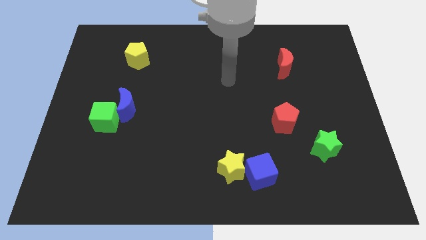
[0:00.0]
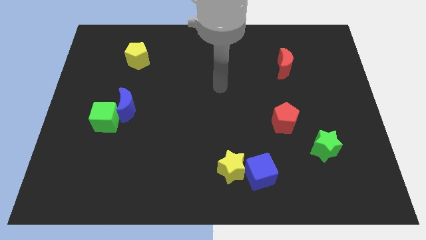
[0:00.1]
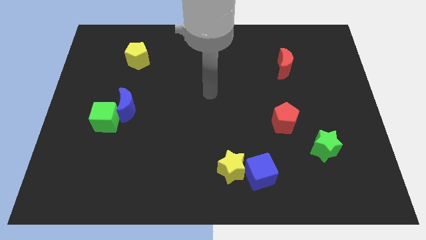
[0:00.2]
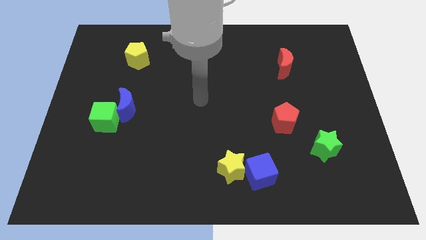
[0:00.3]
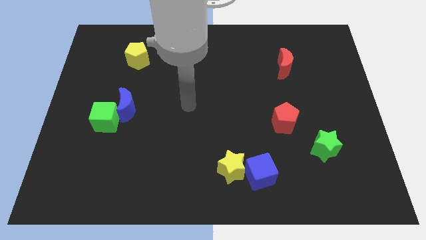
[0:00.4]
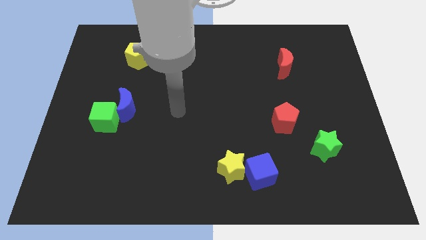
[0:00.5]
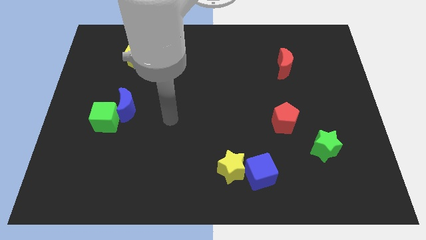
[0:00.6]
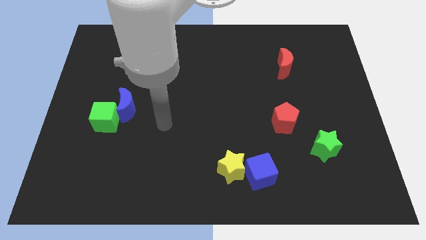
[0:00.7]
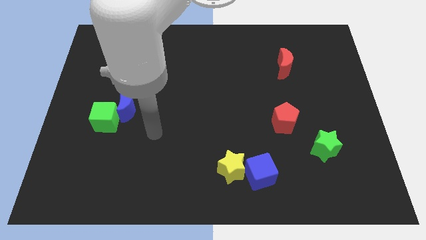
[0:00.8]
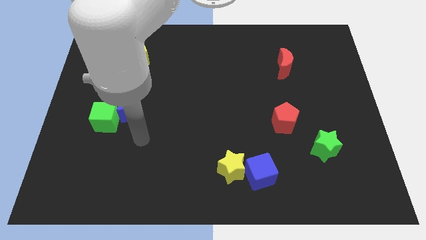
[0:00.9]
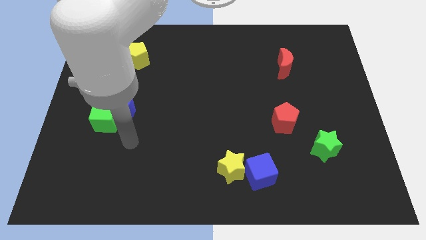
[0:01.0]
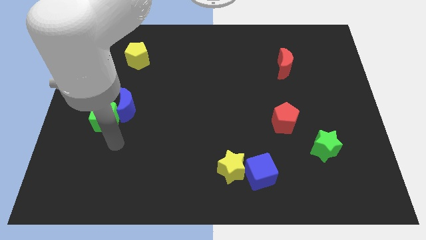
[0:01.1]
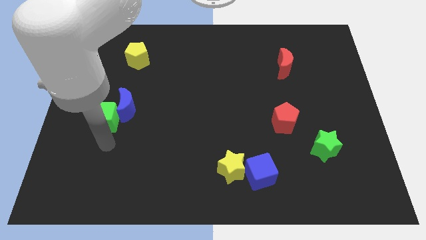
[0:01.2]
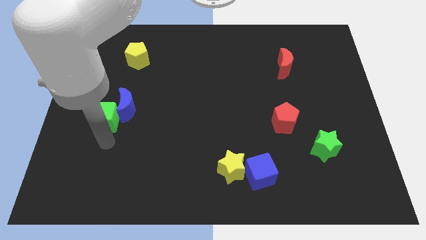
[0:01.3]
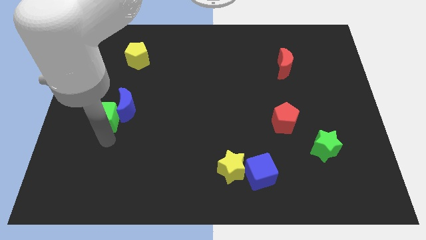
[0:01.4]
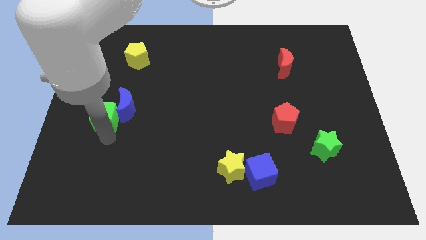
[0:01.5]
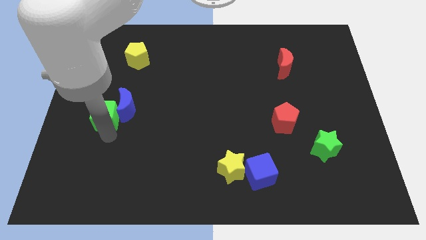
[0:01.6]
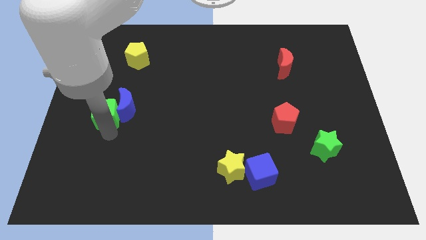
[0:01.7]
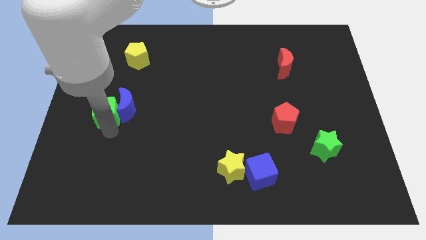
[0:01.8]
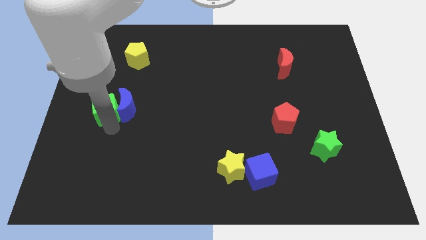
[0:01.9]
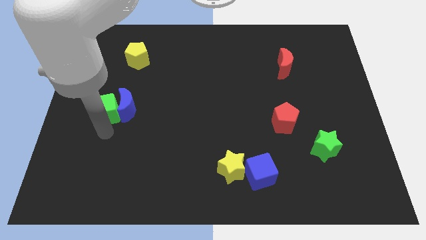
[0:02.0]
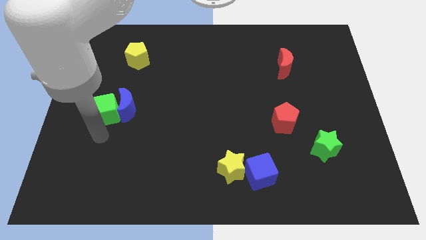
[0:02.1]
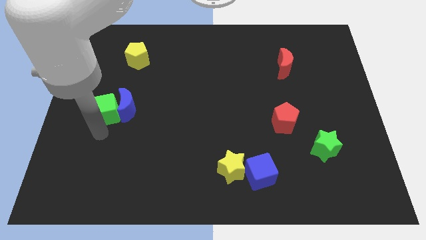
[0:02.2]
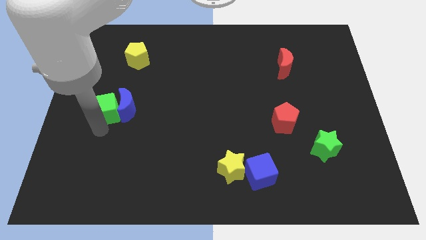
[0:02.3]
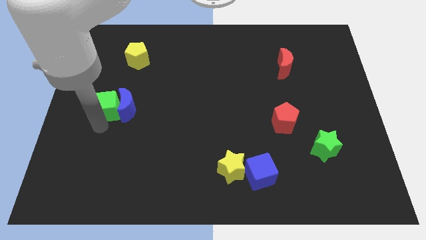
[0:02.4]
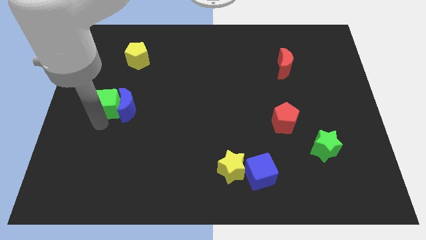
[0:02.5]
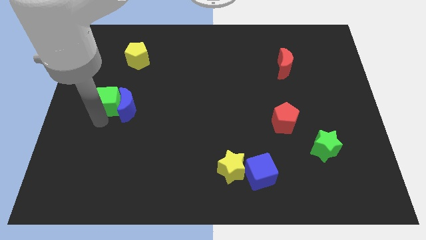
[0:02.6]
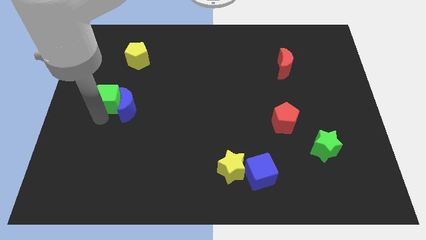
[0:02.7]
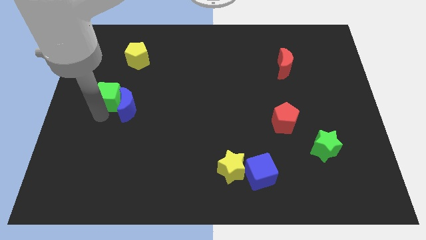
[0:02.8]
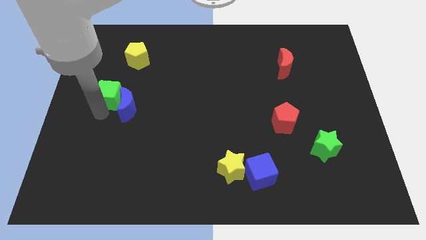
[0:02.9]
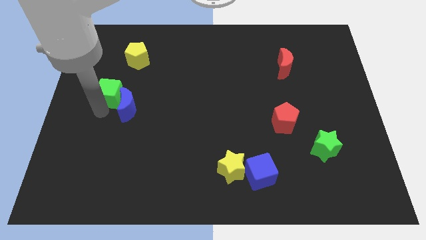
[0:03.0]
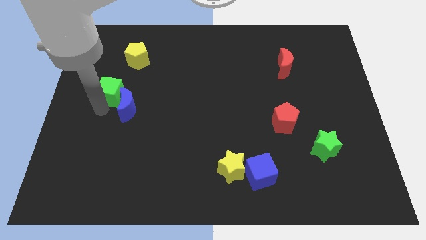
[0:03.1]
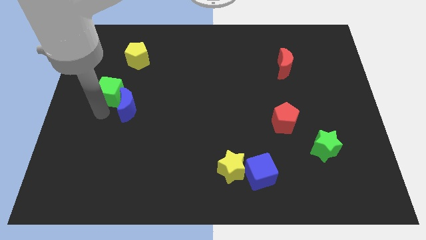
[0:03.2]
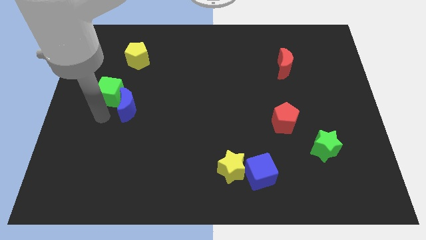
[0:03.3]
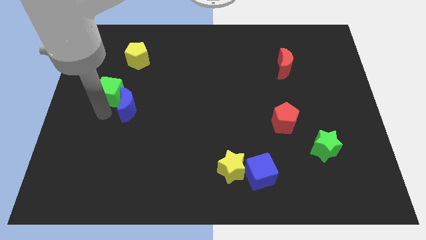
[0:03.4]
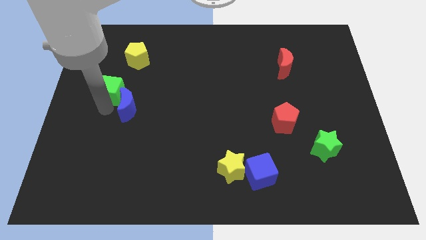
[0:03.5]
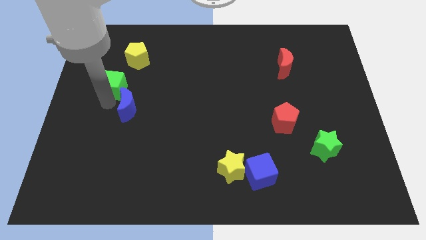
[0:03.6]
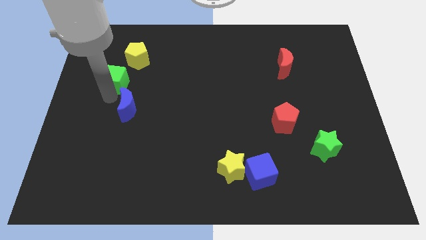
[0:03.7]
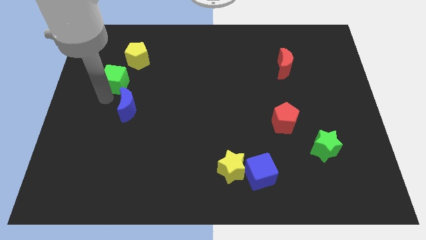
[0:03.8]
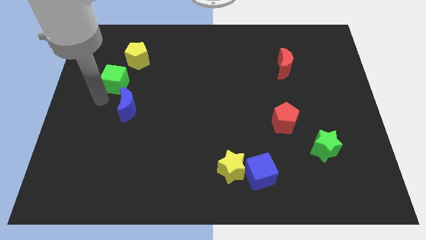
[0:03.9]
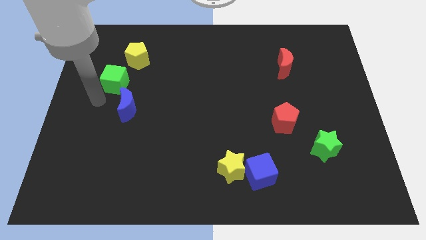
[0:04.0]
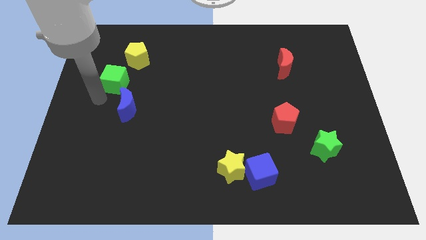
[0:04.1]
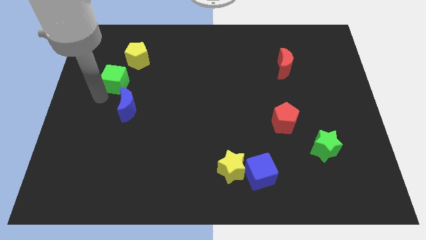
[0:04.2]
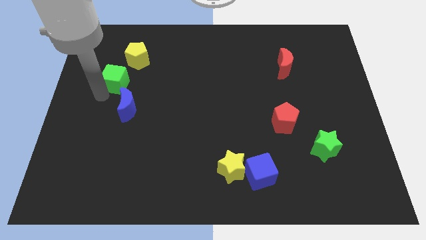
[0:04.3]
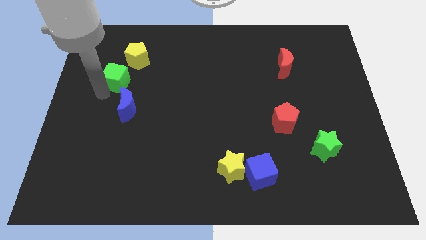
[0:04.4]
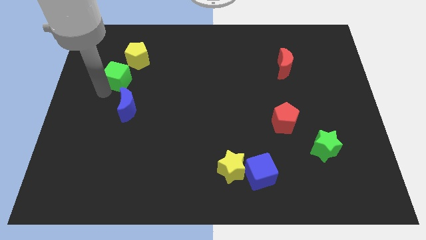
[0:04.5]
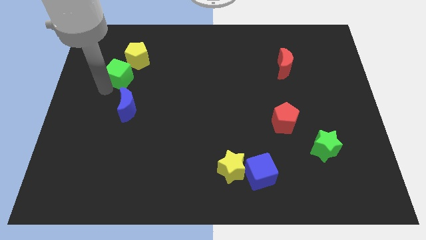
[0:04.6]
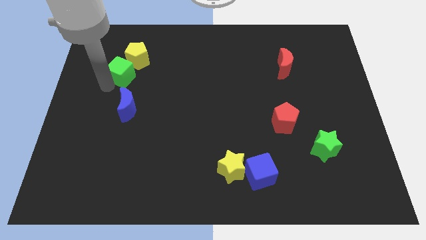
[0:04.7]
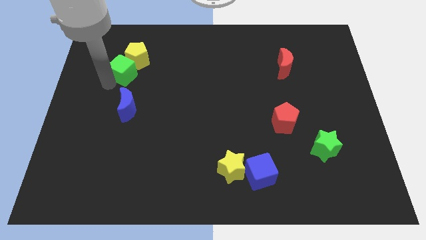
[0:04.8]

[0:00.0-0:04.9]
slide the green cube towards the yellow pentagon

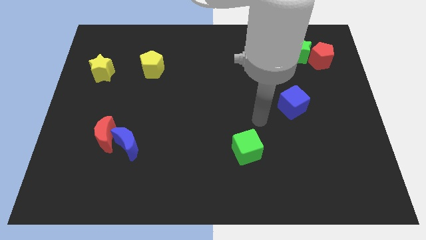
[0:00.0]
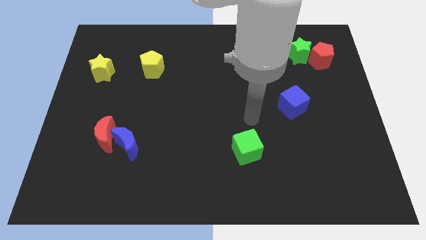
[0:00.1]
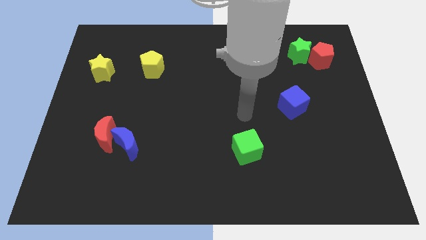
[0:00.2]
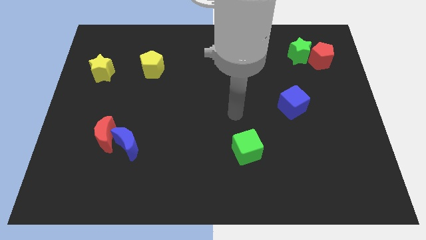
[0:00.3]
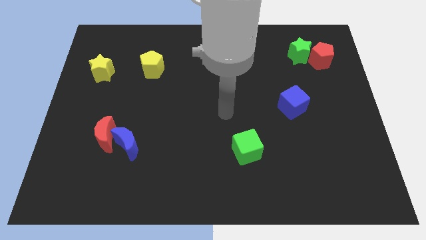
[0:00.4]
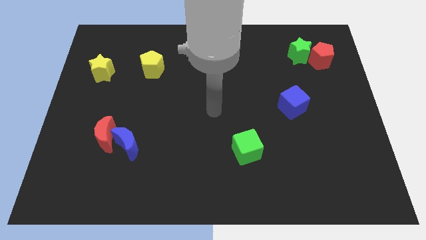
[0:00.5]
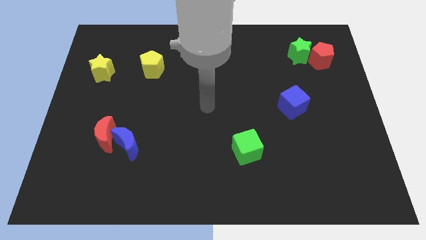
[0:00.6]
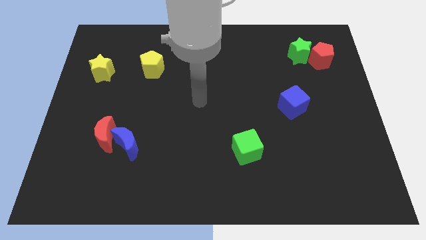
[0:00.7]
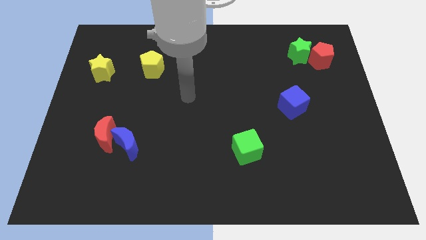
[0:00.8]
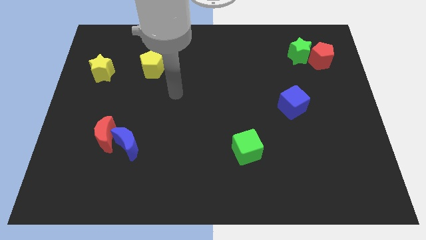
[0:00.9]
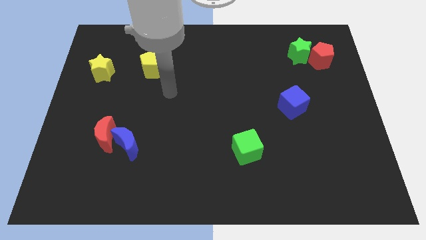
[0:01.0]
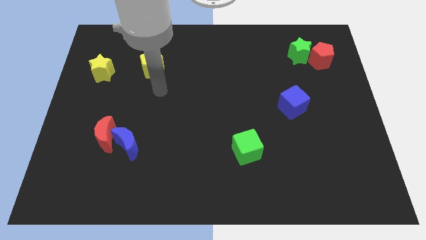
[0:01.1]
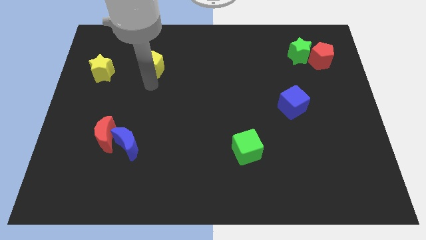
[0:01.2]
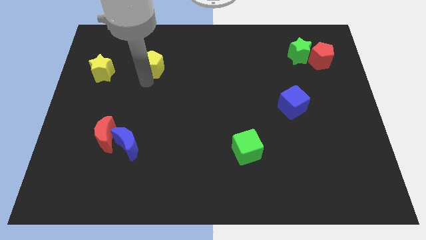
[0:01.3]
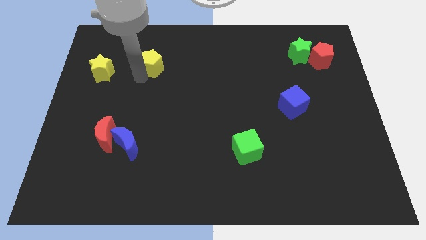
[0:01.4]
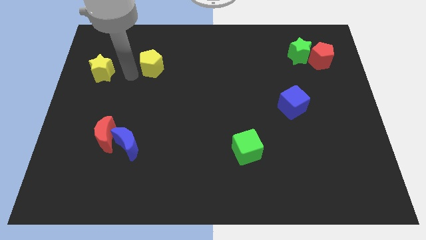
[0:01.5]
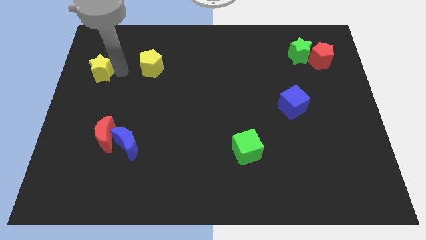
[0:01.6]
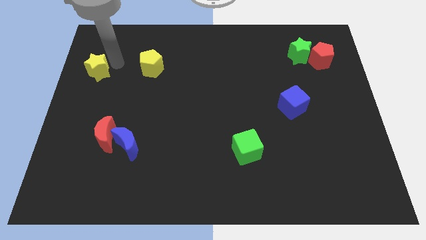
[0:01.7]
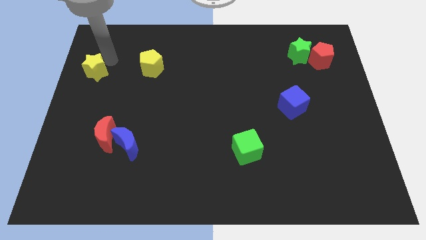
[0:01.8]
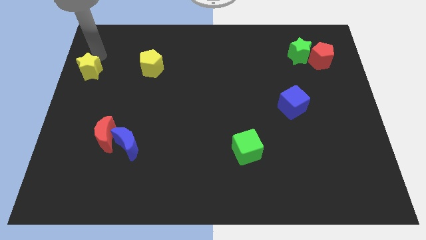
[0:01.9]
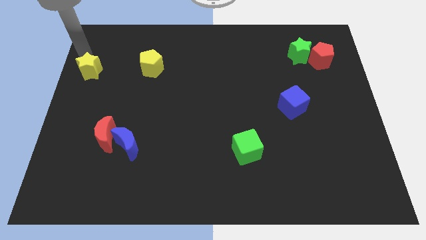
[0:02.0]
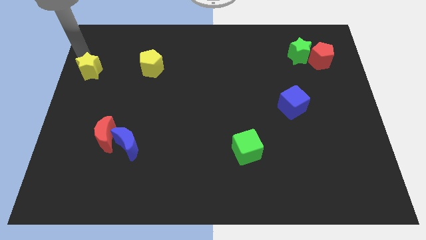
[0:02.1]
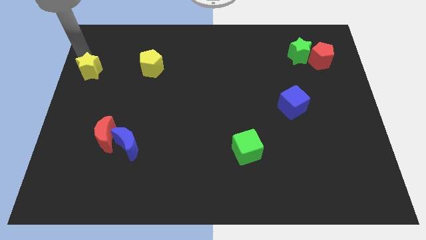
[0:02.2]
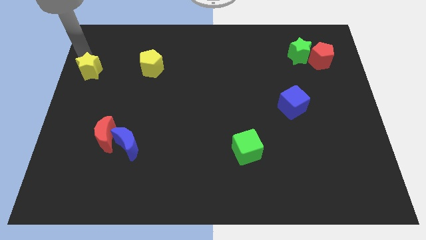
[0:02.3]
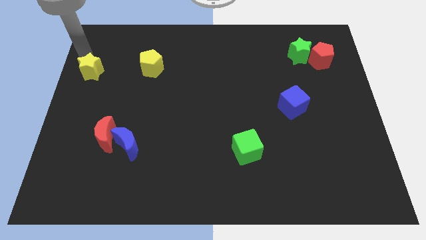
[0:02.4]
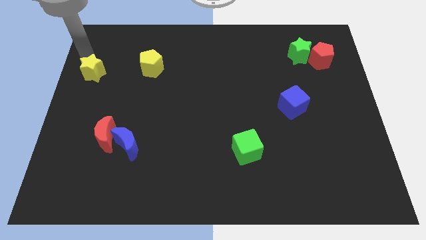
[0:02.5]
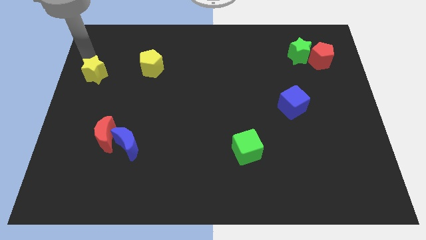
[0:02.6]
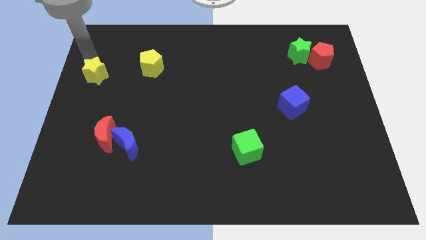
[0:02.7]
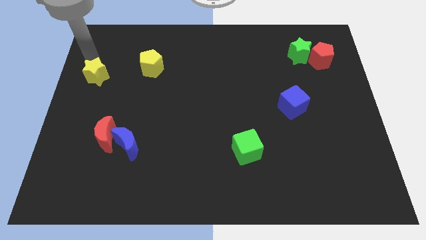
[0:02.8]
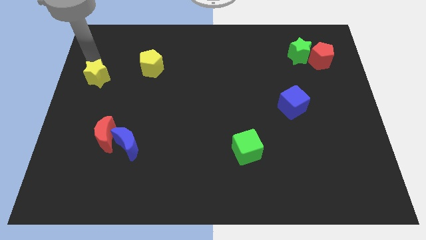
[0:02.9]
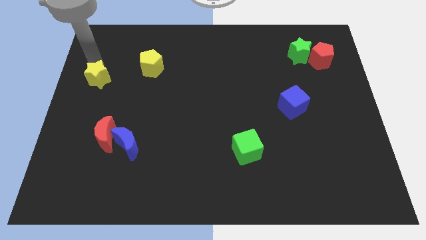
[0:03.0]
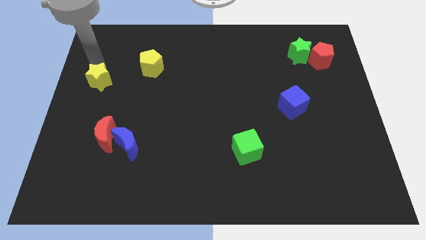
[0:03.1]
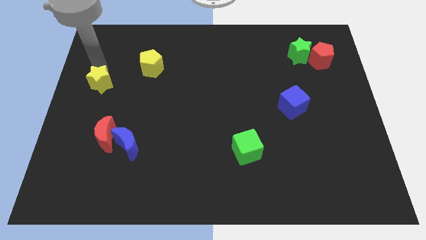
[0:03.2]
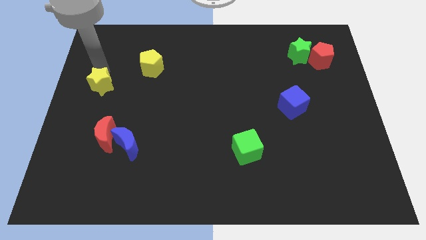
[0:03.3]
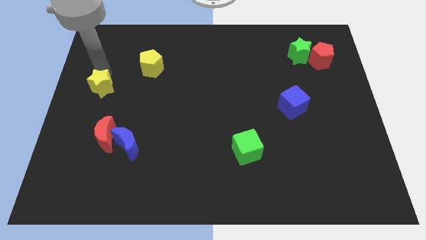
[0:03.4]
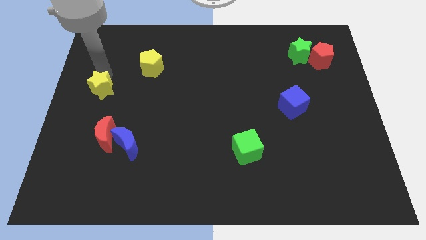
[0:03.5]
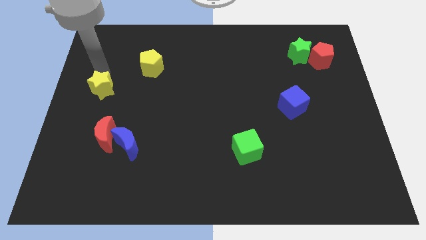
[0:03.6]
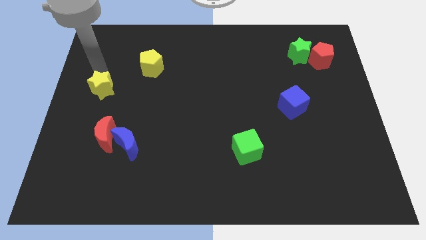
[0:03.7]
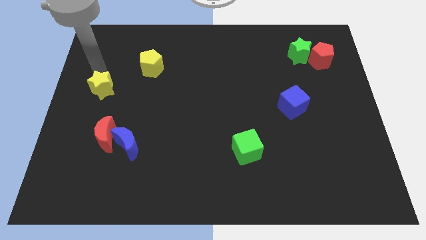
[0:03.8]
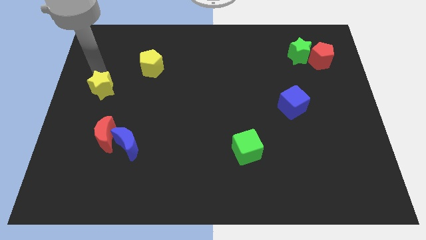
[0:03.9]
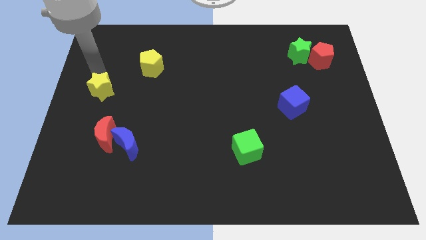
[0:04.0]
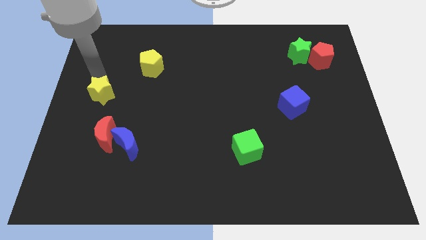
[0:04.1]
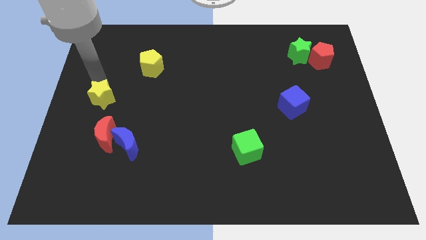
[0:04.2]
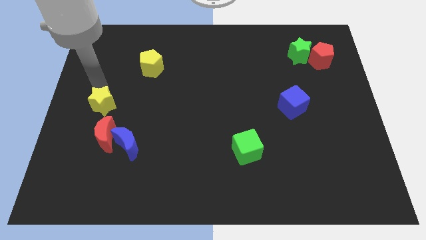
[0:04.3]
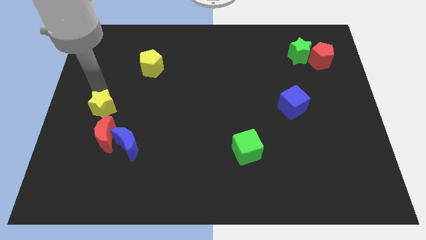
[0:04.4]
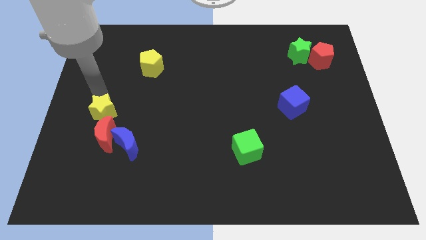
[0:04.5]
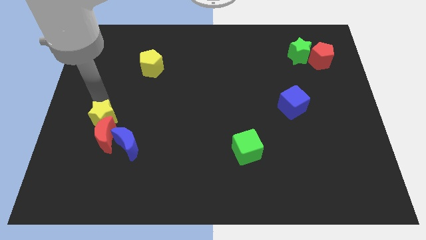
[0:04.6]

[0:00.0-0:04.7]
move the yellow star next to the red moon
